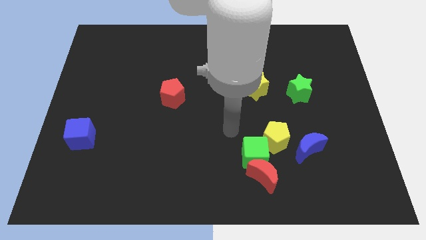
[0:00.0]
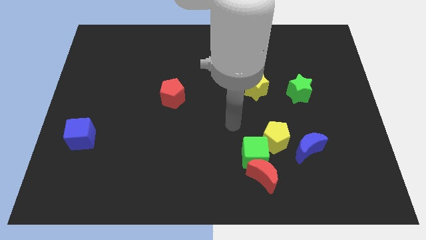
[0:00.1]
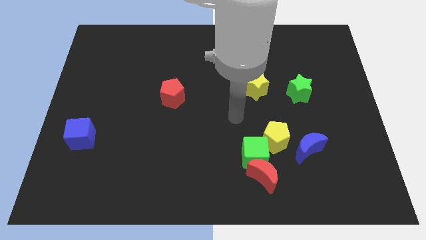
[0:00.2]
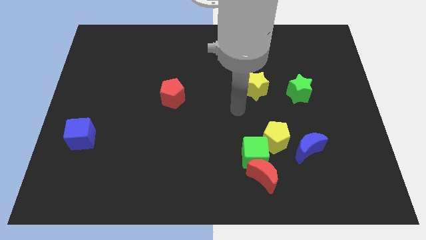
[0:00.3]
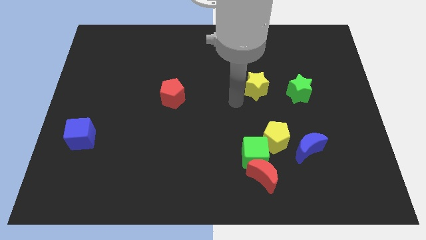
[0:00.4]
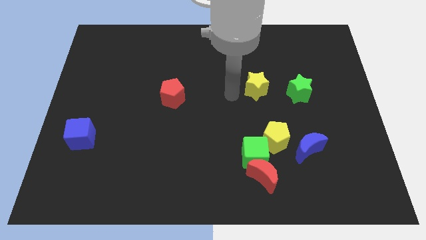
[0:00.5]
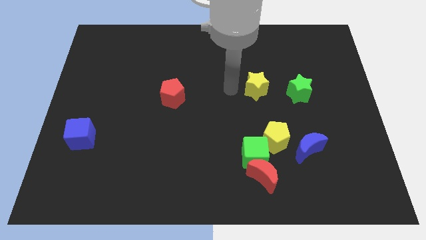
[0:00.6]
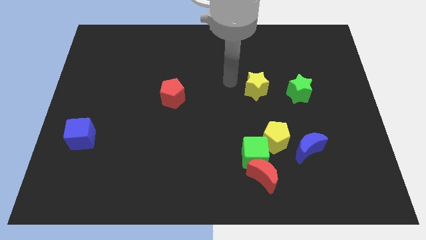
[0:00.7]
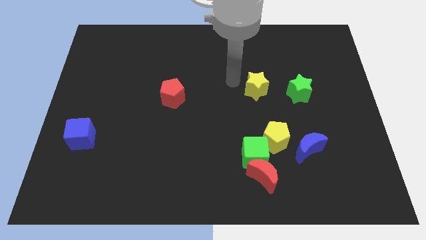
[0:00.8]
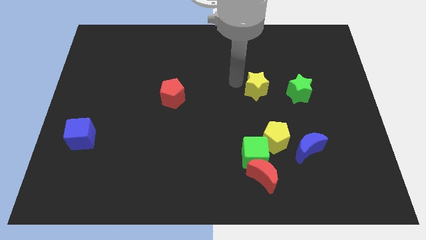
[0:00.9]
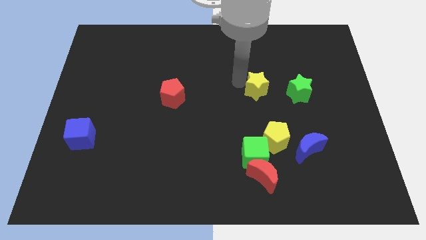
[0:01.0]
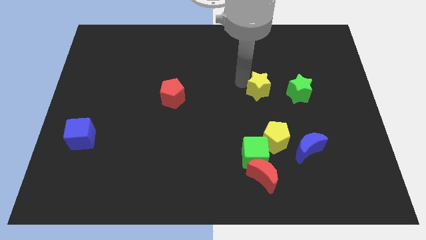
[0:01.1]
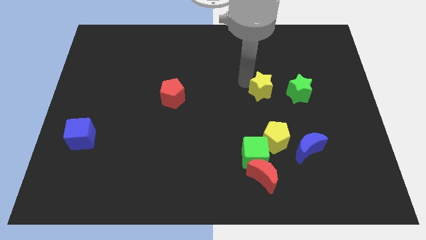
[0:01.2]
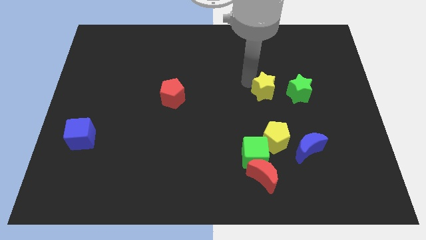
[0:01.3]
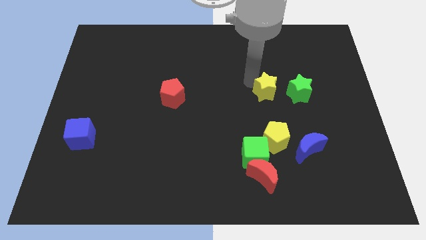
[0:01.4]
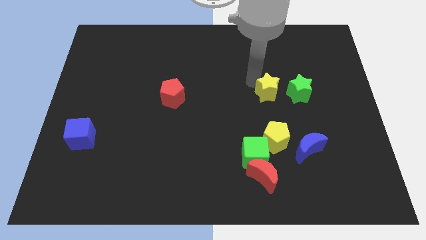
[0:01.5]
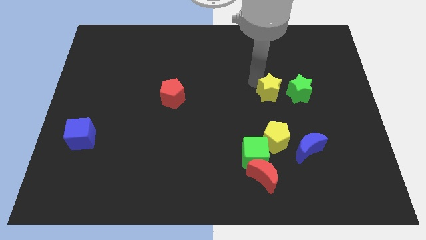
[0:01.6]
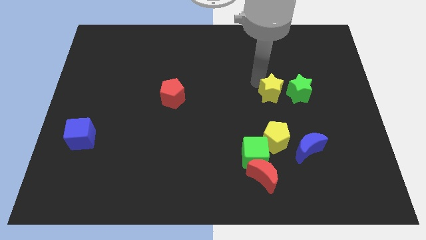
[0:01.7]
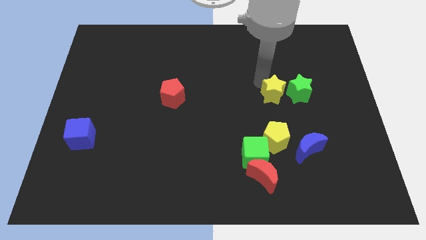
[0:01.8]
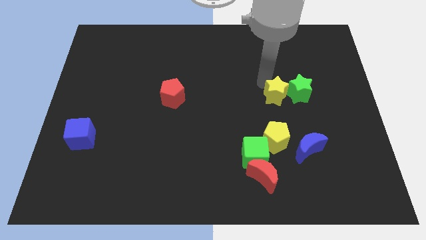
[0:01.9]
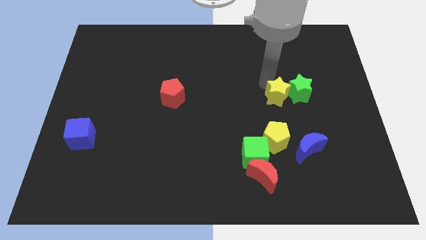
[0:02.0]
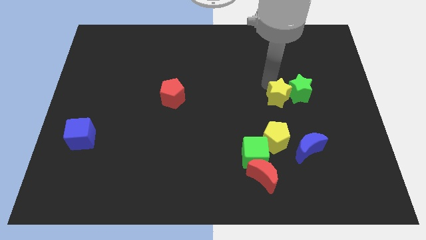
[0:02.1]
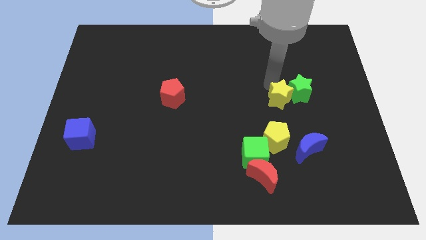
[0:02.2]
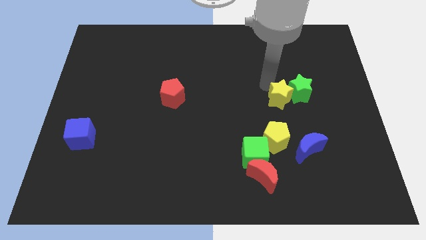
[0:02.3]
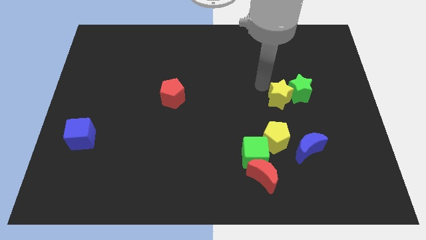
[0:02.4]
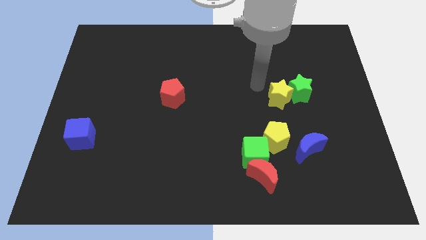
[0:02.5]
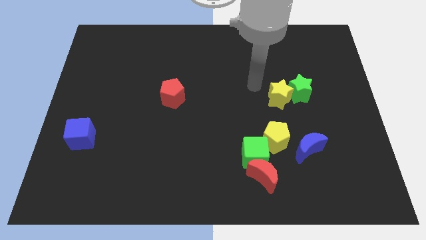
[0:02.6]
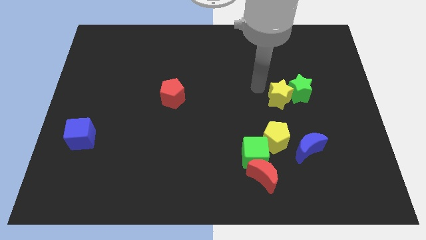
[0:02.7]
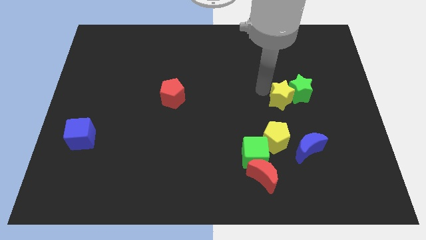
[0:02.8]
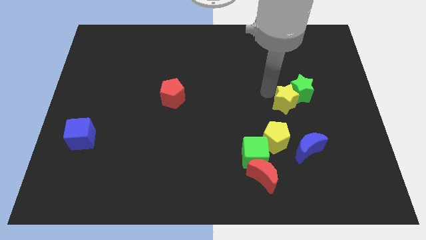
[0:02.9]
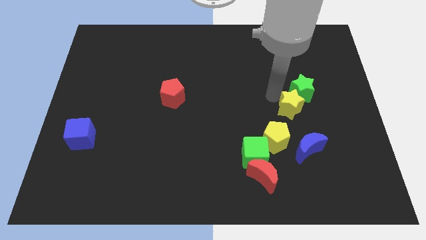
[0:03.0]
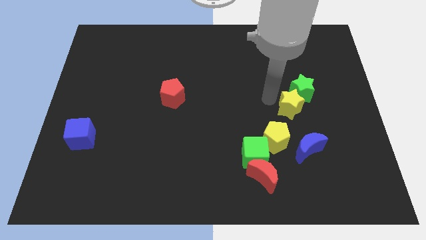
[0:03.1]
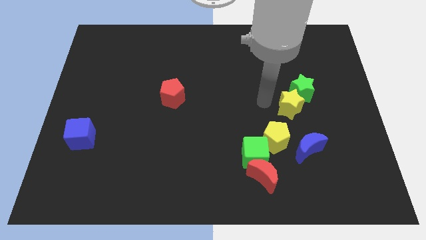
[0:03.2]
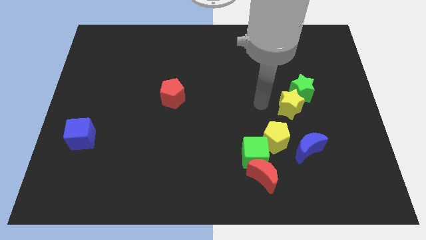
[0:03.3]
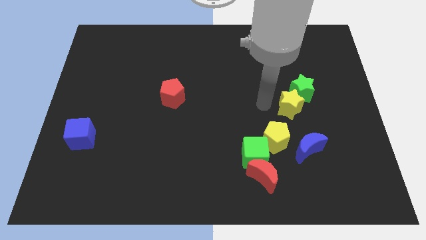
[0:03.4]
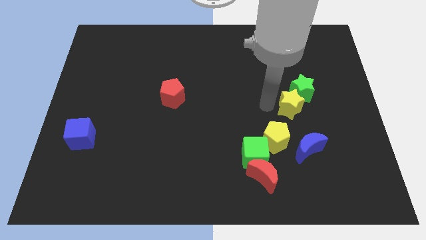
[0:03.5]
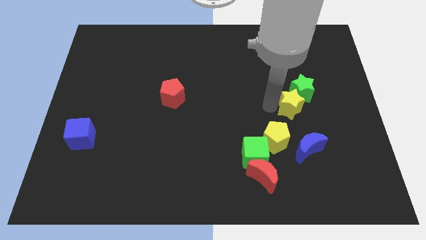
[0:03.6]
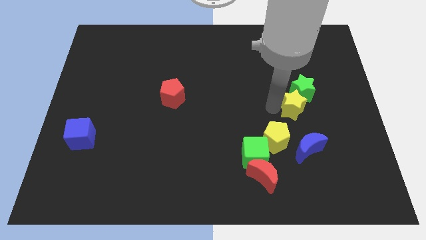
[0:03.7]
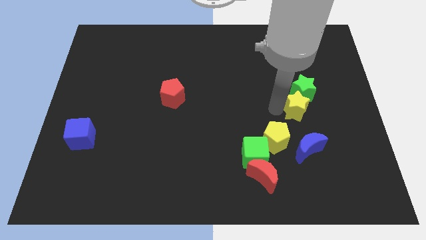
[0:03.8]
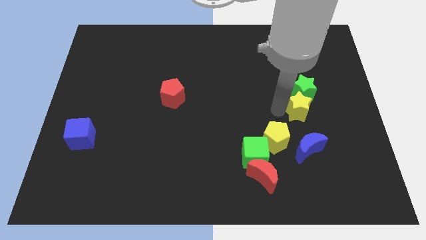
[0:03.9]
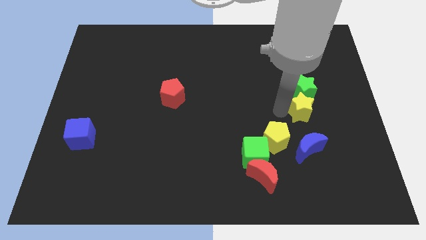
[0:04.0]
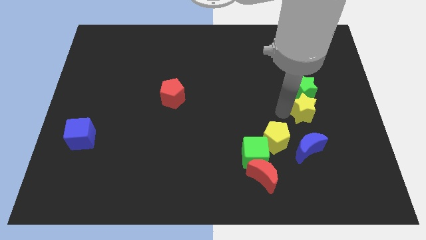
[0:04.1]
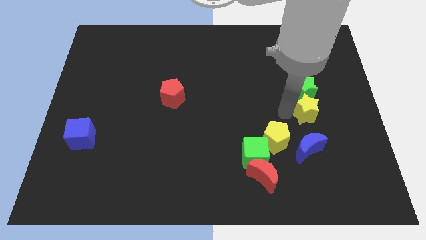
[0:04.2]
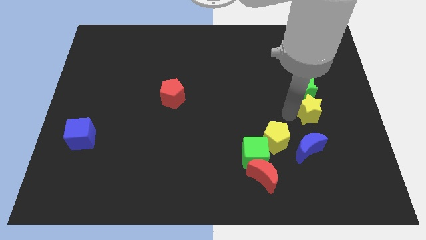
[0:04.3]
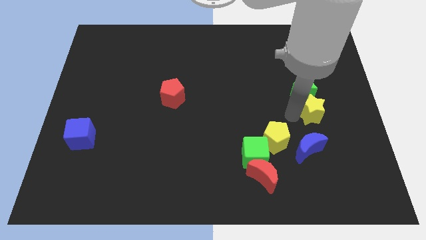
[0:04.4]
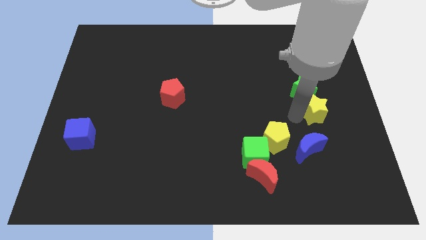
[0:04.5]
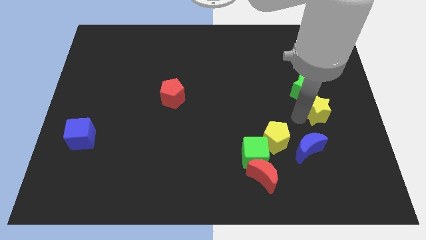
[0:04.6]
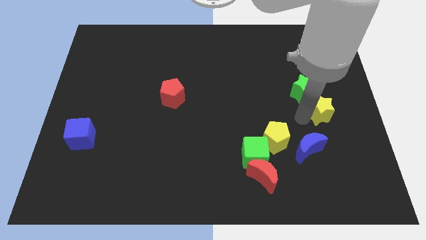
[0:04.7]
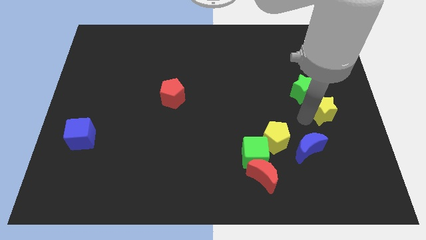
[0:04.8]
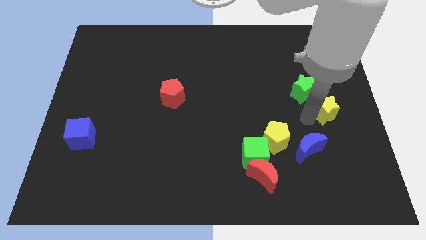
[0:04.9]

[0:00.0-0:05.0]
put the yellow star to the right side
